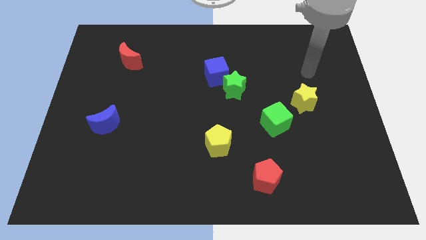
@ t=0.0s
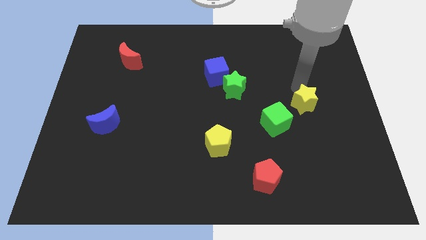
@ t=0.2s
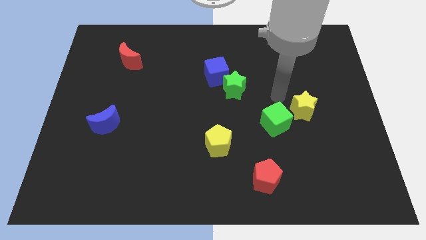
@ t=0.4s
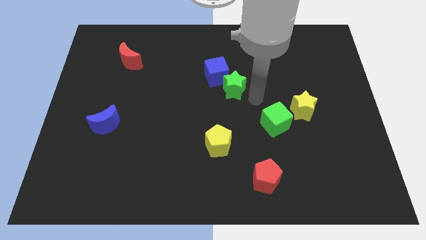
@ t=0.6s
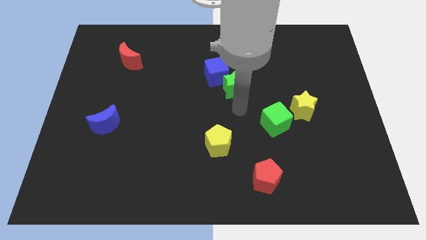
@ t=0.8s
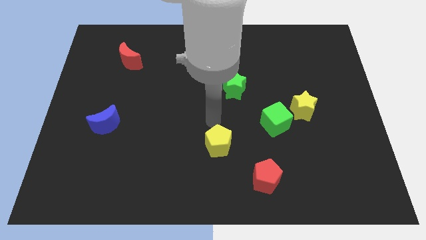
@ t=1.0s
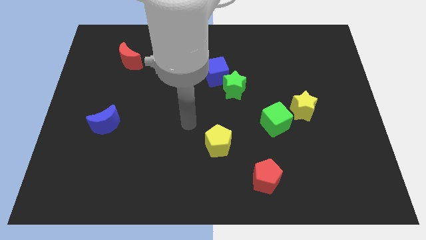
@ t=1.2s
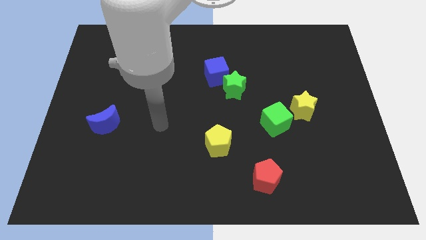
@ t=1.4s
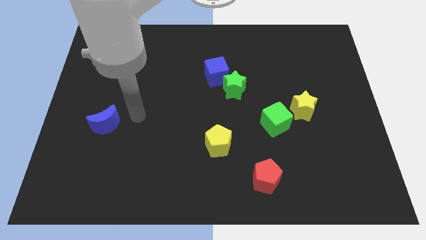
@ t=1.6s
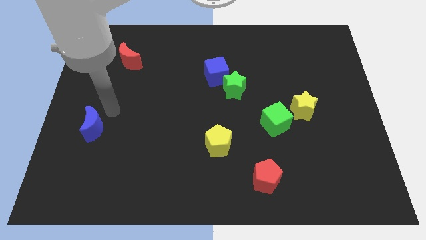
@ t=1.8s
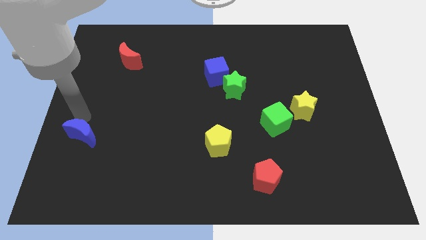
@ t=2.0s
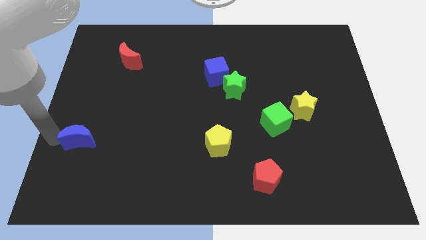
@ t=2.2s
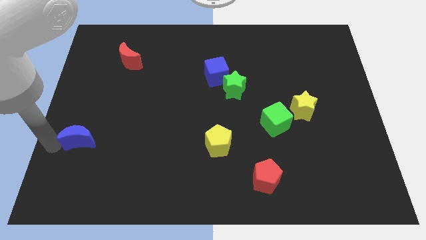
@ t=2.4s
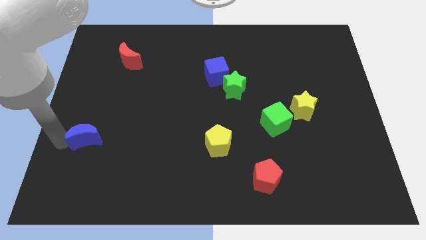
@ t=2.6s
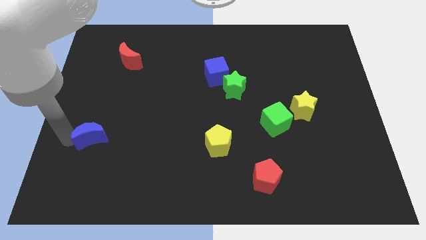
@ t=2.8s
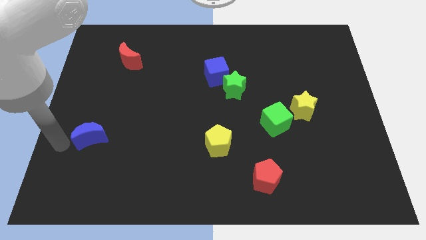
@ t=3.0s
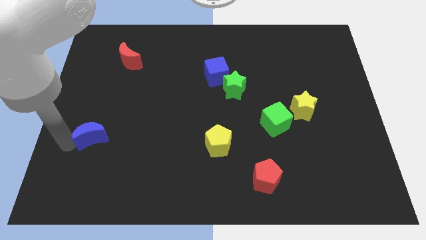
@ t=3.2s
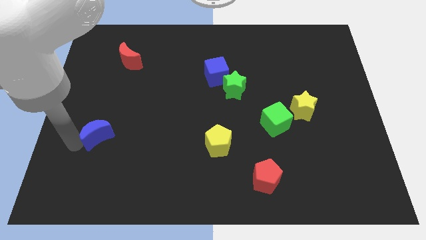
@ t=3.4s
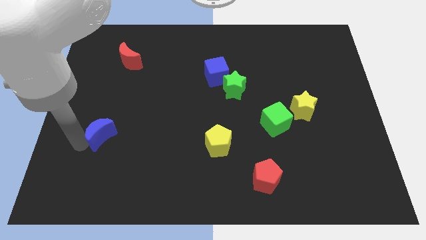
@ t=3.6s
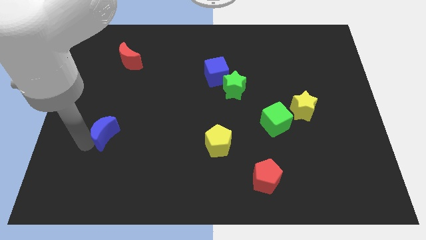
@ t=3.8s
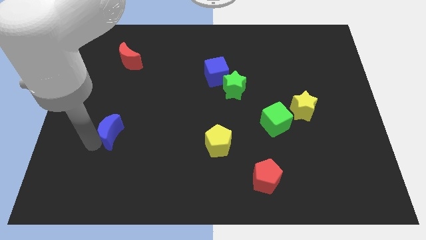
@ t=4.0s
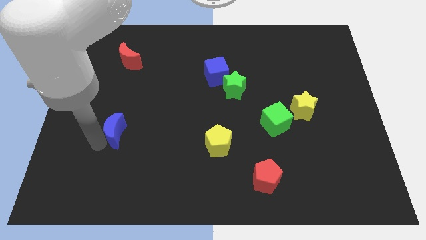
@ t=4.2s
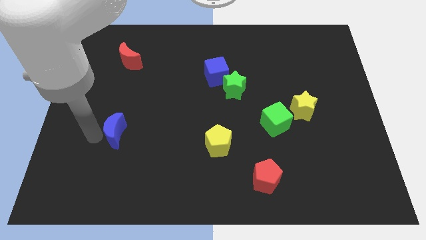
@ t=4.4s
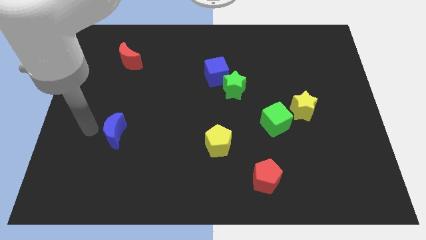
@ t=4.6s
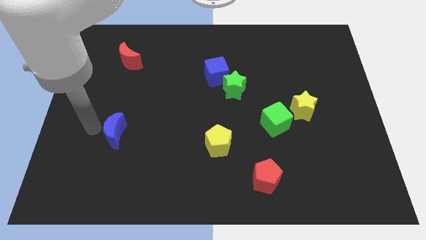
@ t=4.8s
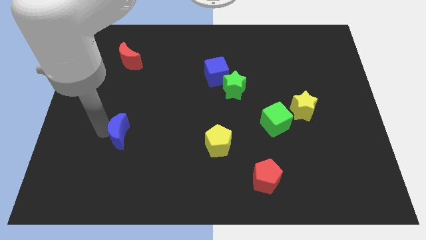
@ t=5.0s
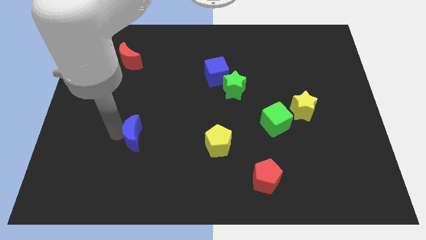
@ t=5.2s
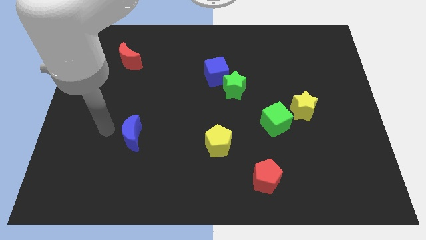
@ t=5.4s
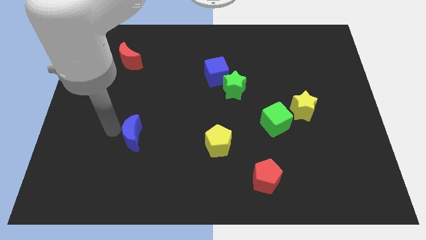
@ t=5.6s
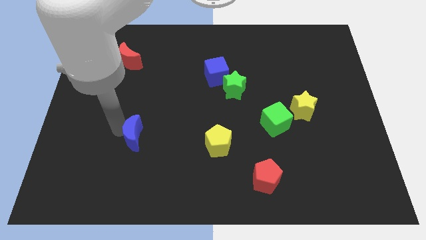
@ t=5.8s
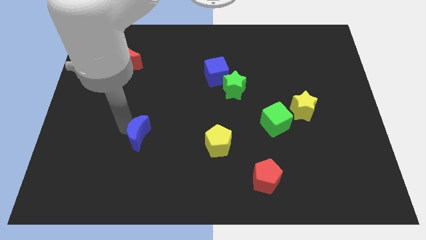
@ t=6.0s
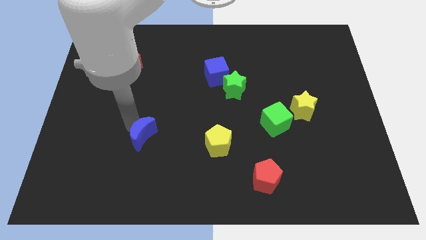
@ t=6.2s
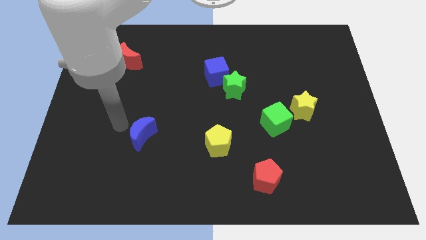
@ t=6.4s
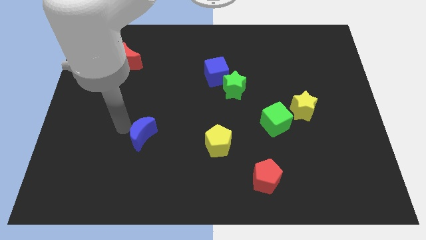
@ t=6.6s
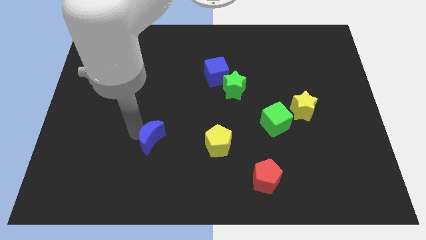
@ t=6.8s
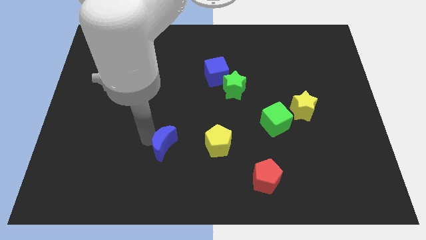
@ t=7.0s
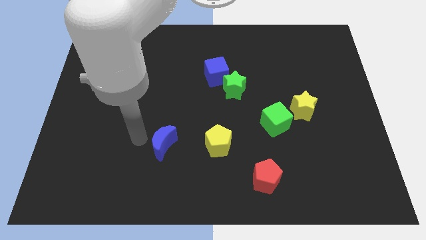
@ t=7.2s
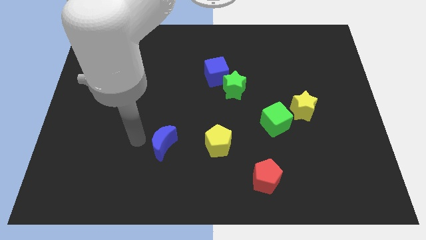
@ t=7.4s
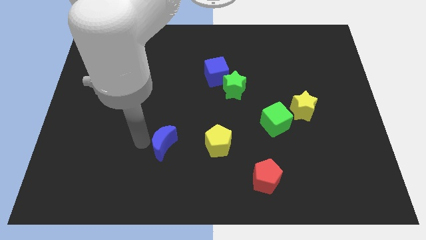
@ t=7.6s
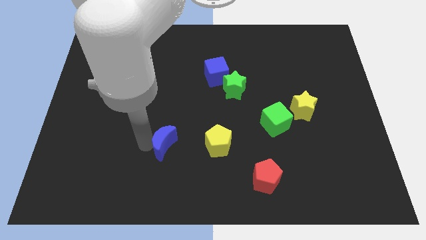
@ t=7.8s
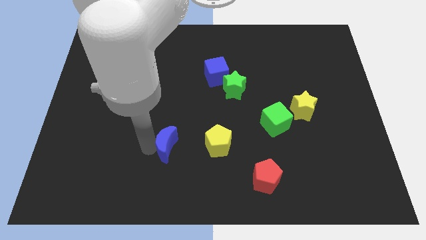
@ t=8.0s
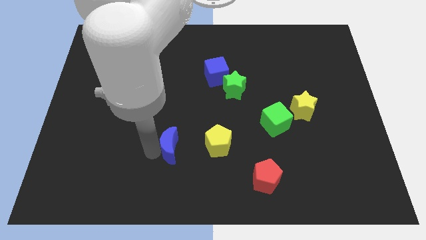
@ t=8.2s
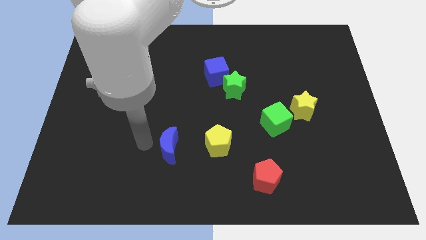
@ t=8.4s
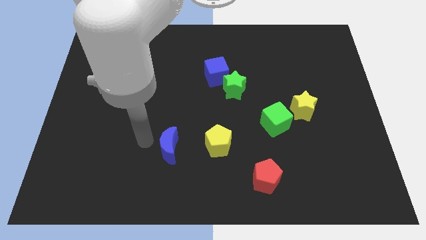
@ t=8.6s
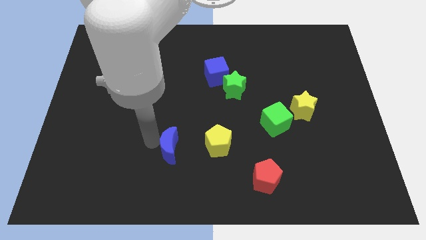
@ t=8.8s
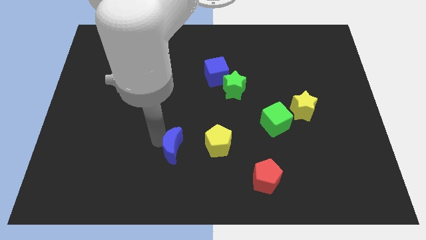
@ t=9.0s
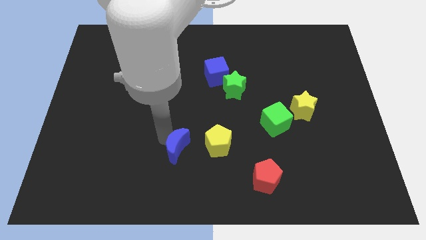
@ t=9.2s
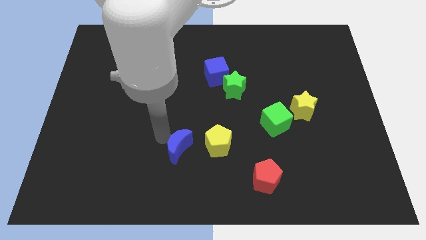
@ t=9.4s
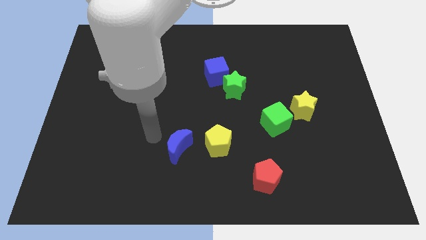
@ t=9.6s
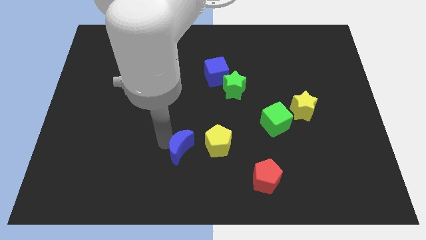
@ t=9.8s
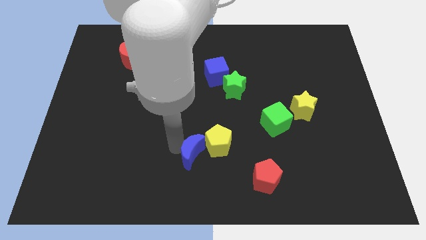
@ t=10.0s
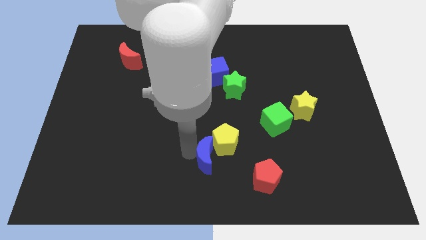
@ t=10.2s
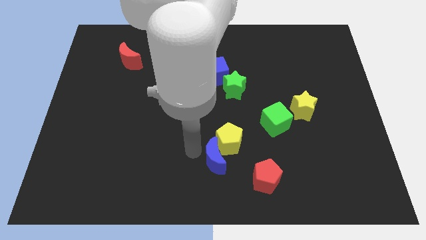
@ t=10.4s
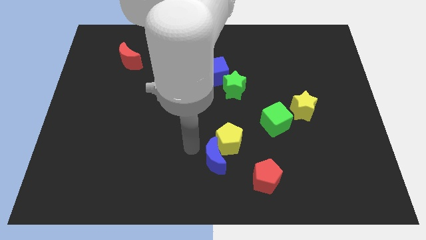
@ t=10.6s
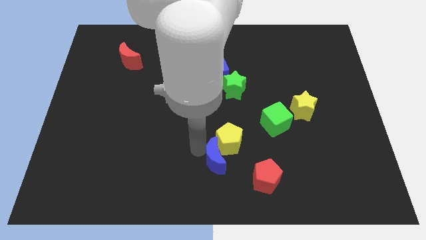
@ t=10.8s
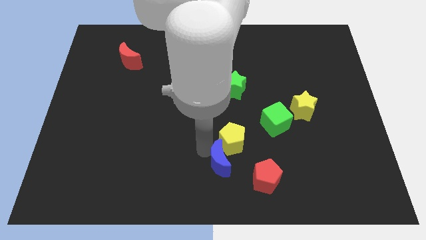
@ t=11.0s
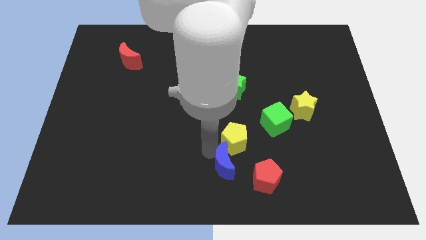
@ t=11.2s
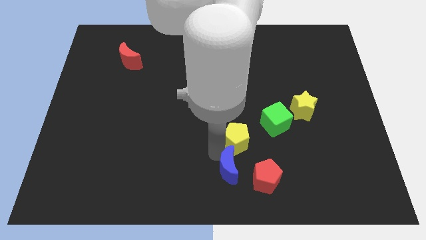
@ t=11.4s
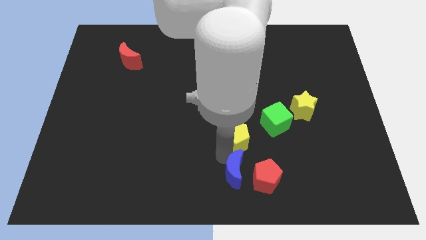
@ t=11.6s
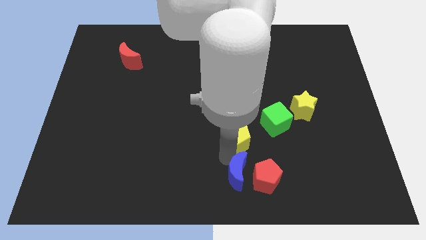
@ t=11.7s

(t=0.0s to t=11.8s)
push the blue moon close to the red pentagon

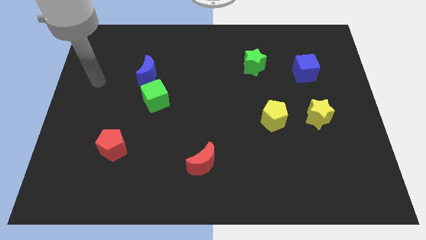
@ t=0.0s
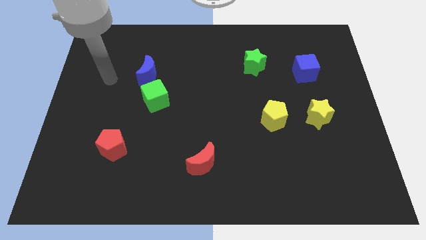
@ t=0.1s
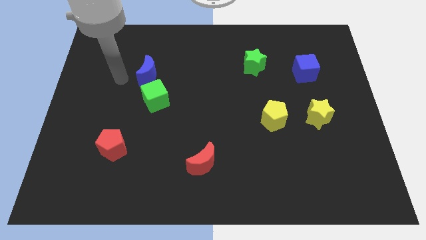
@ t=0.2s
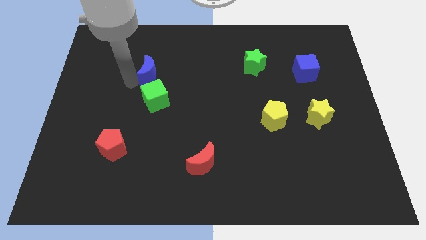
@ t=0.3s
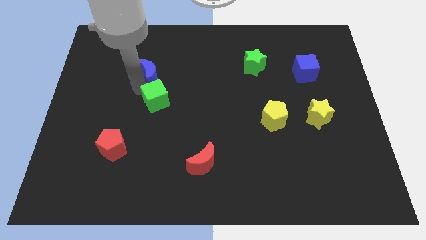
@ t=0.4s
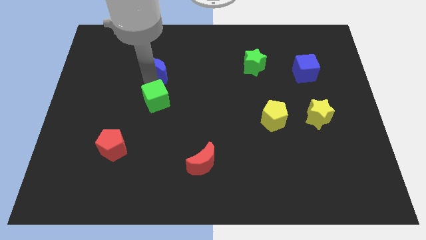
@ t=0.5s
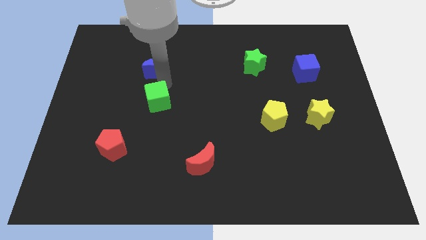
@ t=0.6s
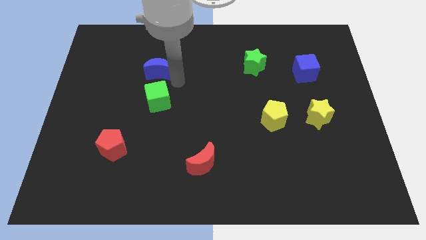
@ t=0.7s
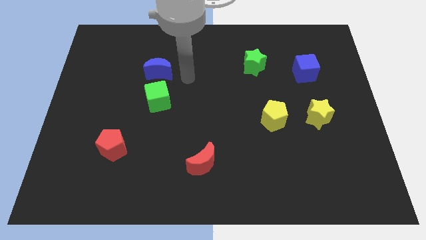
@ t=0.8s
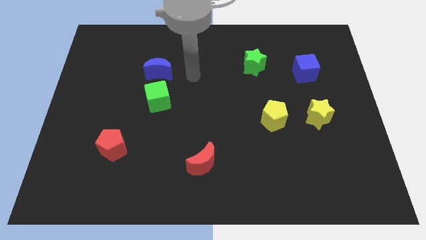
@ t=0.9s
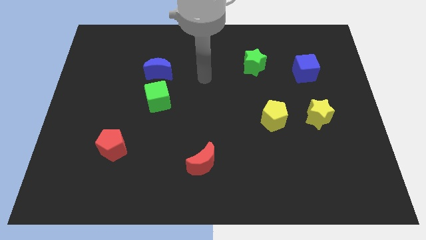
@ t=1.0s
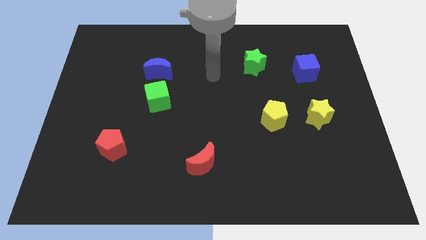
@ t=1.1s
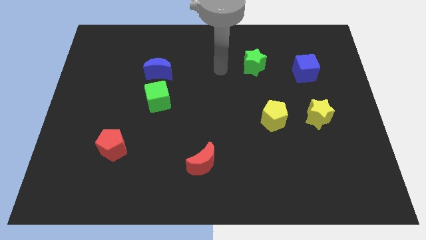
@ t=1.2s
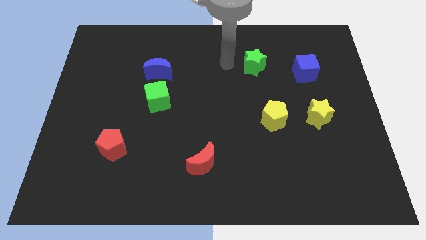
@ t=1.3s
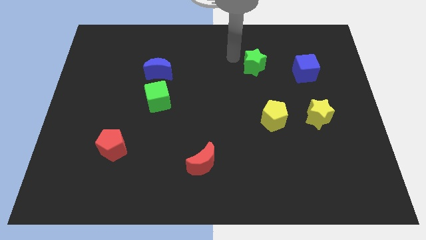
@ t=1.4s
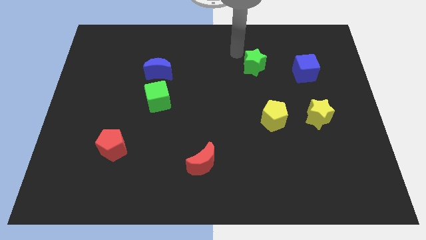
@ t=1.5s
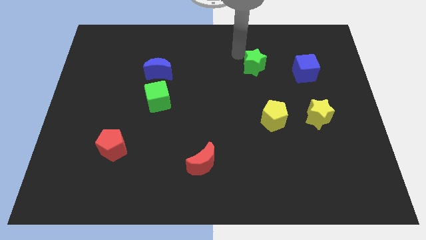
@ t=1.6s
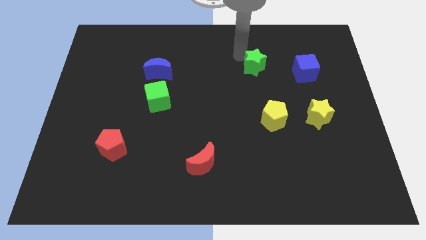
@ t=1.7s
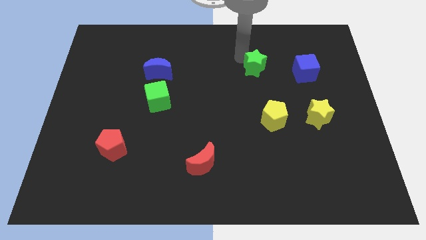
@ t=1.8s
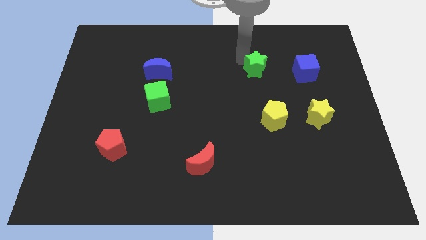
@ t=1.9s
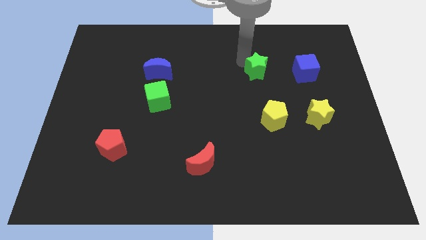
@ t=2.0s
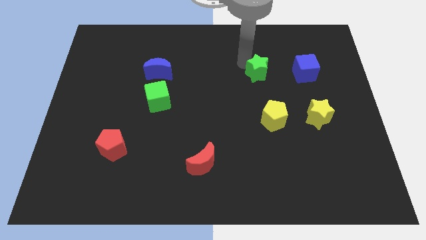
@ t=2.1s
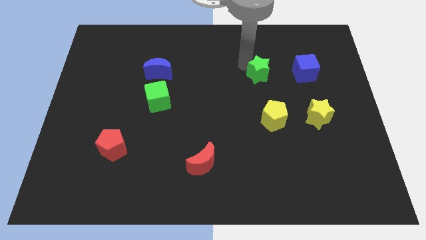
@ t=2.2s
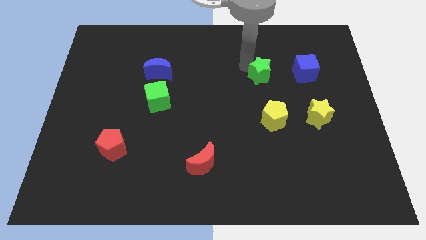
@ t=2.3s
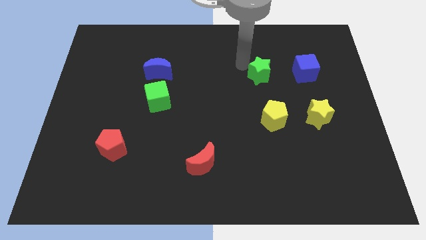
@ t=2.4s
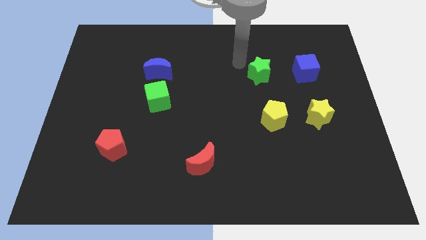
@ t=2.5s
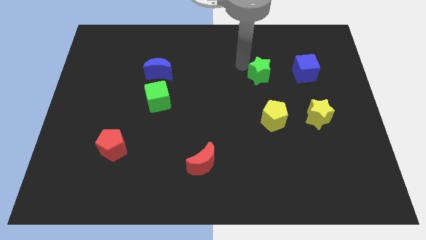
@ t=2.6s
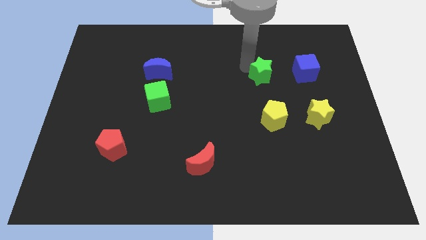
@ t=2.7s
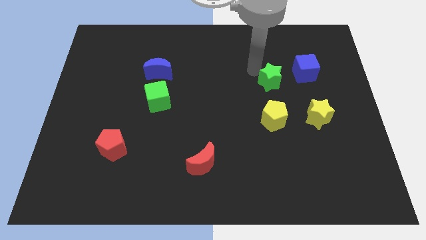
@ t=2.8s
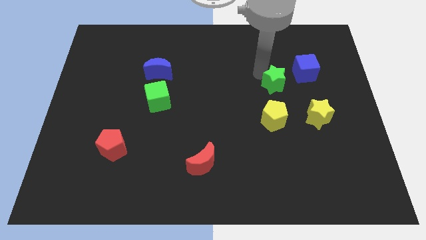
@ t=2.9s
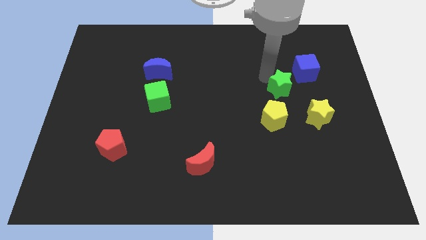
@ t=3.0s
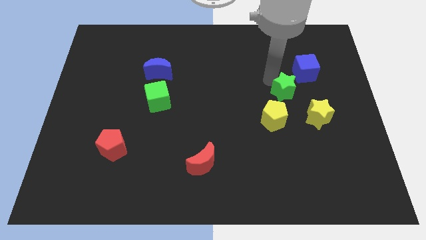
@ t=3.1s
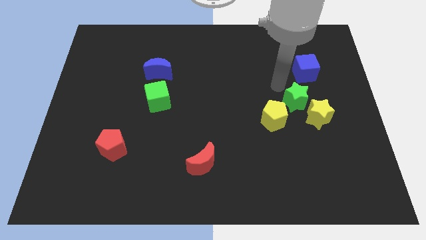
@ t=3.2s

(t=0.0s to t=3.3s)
push the green star to the yellow star
